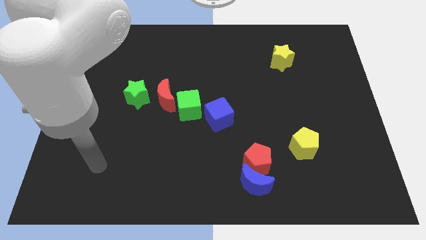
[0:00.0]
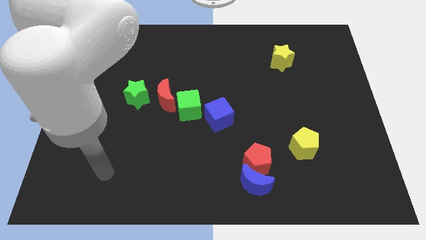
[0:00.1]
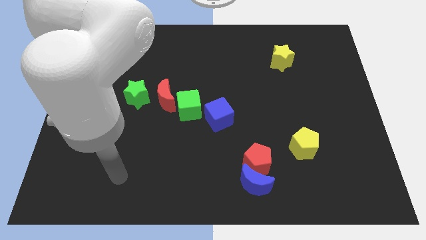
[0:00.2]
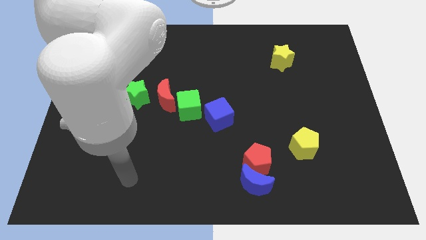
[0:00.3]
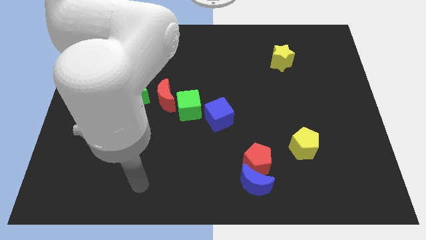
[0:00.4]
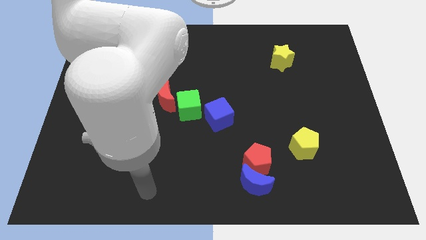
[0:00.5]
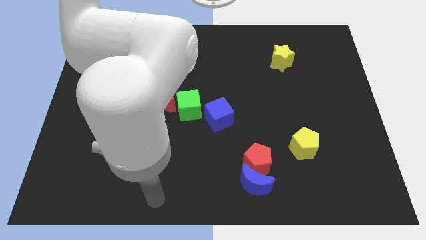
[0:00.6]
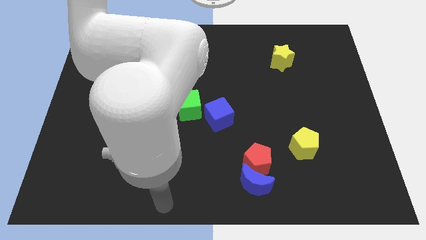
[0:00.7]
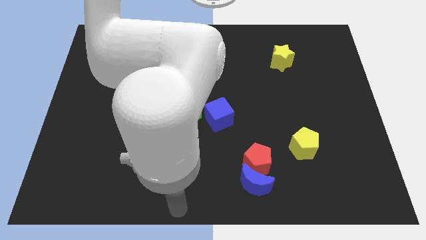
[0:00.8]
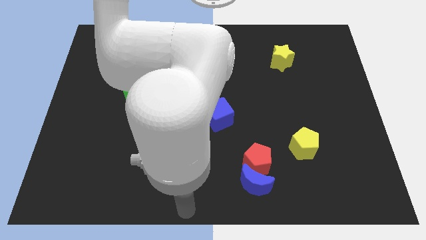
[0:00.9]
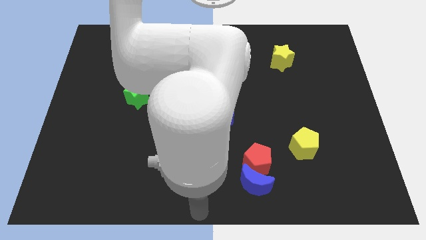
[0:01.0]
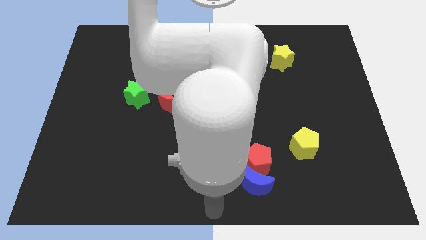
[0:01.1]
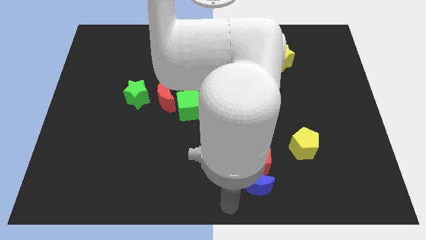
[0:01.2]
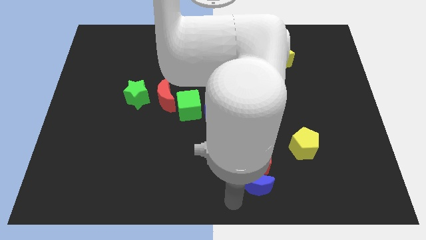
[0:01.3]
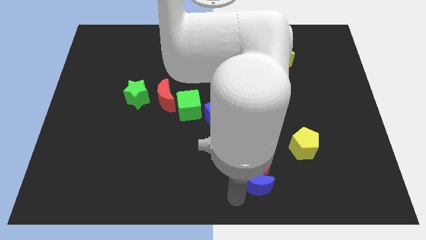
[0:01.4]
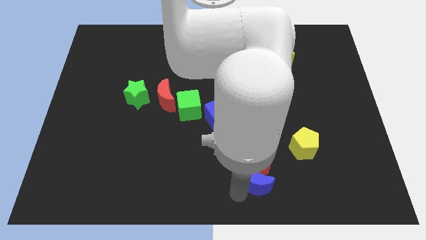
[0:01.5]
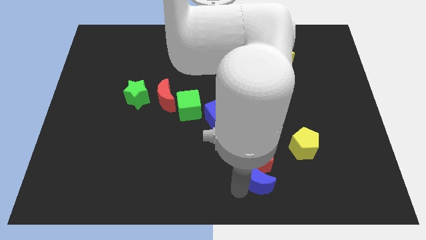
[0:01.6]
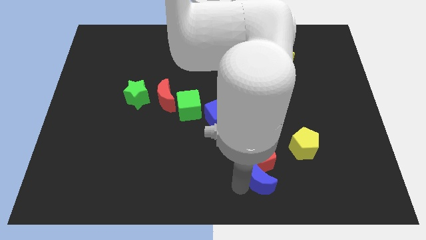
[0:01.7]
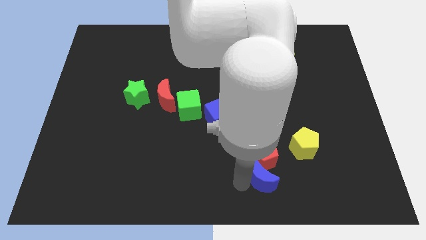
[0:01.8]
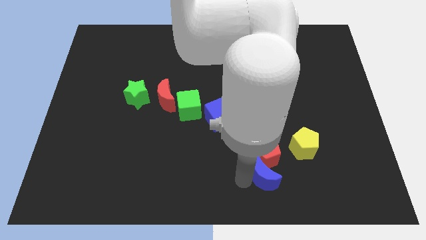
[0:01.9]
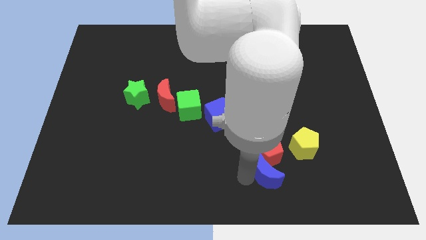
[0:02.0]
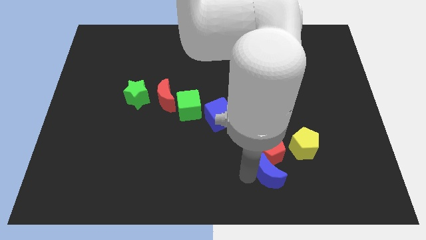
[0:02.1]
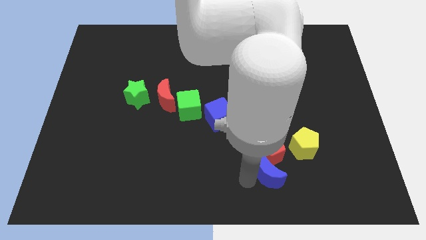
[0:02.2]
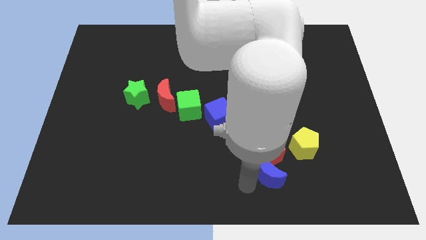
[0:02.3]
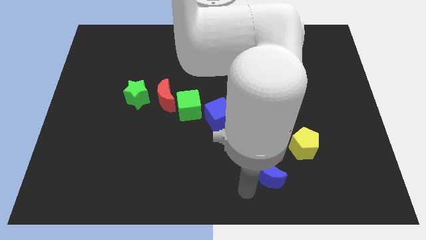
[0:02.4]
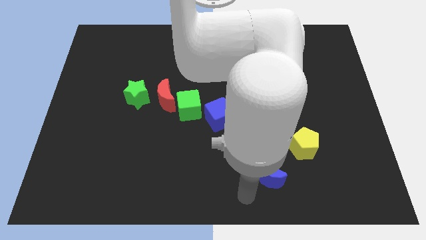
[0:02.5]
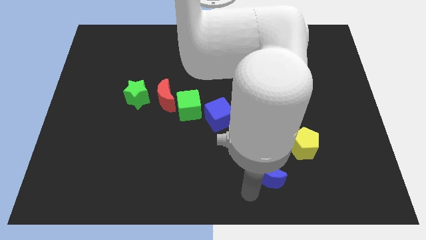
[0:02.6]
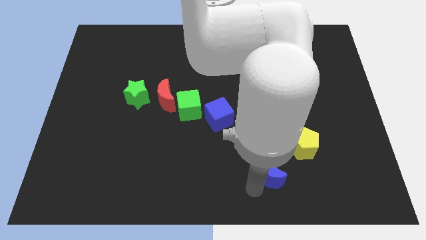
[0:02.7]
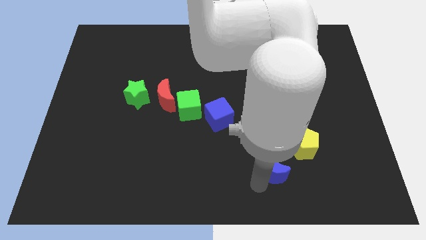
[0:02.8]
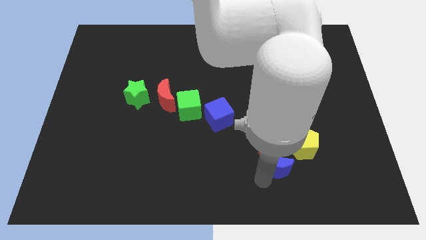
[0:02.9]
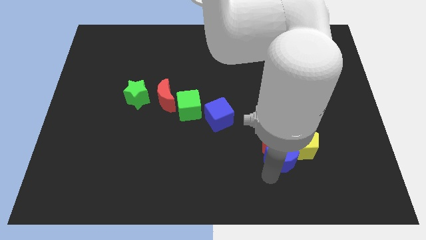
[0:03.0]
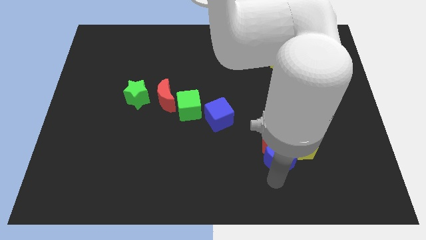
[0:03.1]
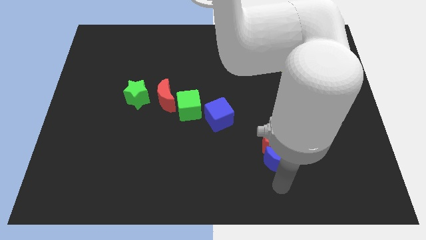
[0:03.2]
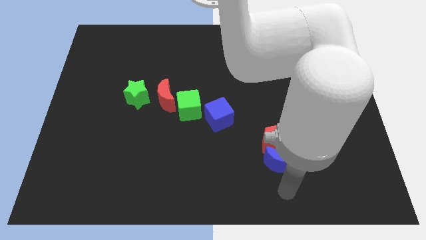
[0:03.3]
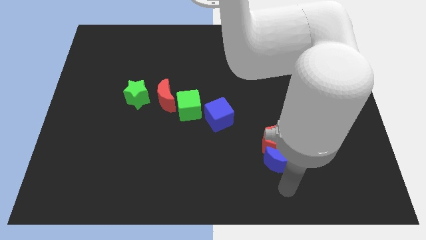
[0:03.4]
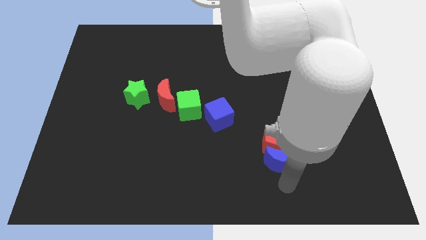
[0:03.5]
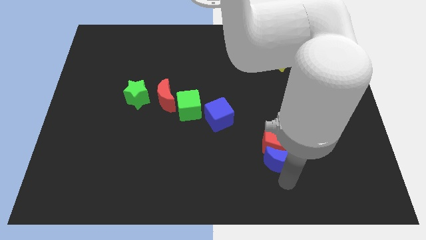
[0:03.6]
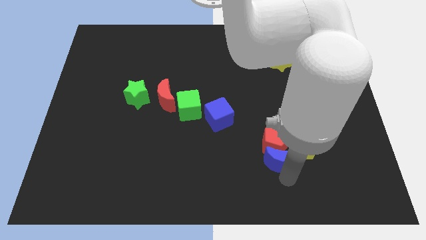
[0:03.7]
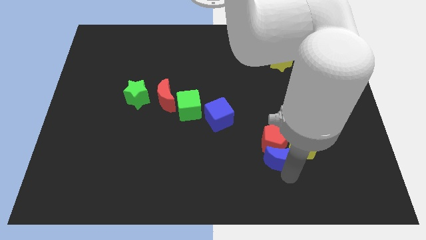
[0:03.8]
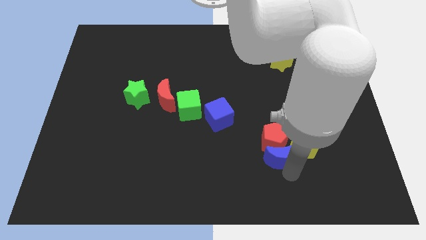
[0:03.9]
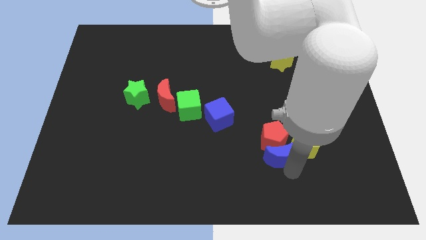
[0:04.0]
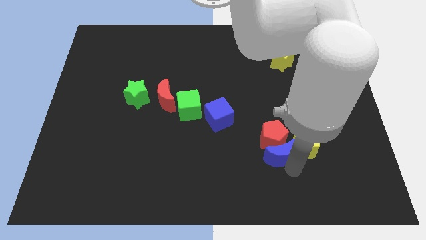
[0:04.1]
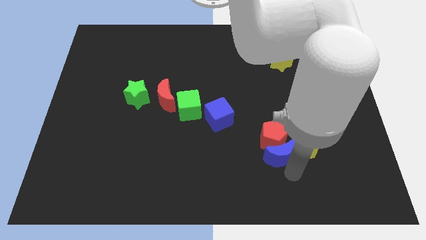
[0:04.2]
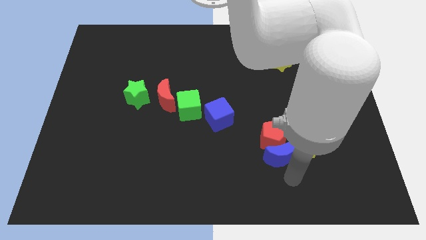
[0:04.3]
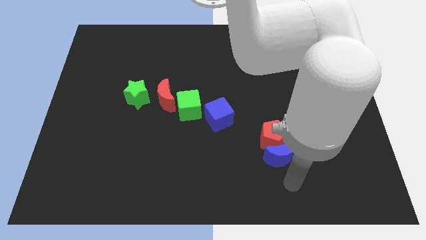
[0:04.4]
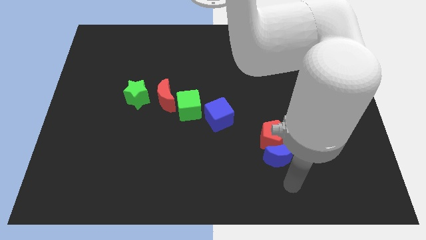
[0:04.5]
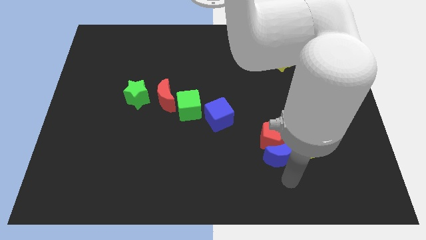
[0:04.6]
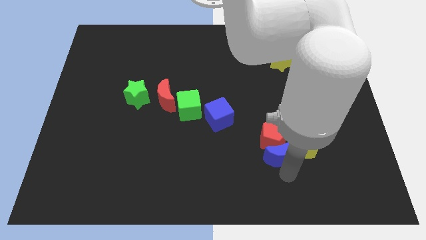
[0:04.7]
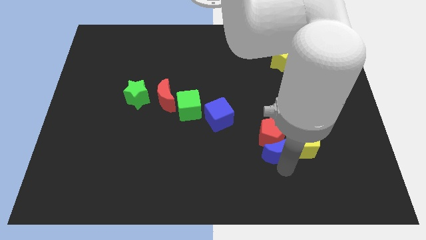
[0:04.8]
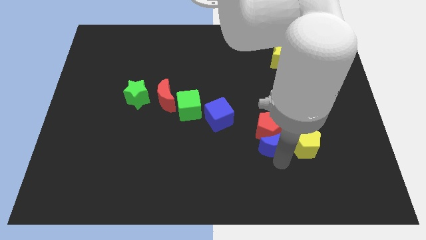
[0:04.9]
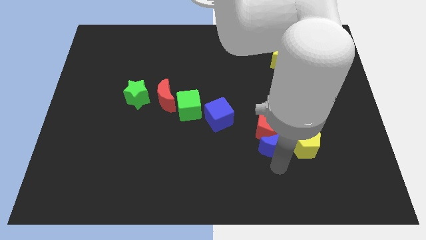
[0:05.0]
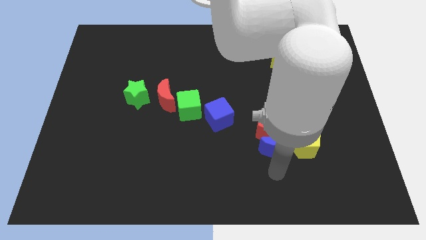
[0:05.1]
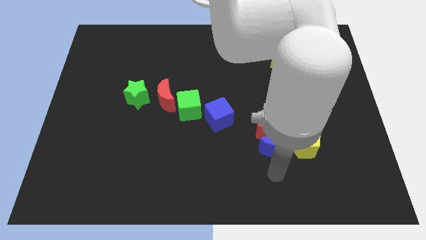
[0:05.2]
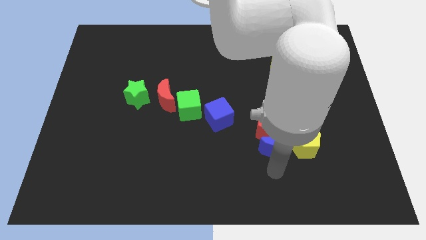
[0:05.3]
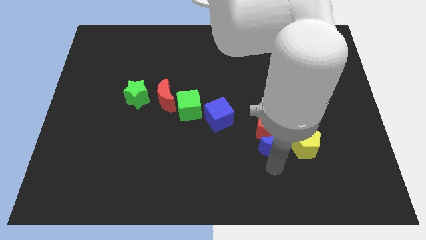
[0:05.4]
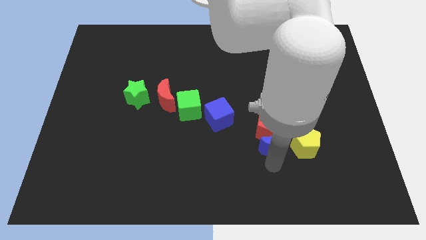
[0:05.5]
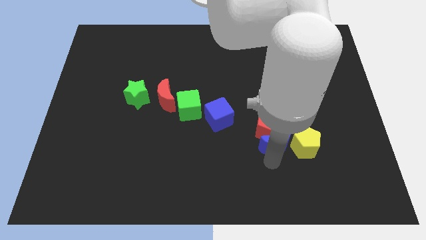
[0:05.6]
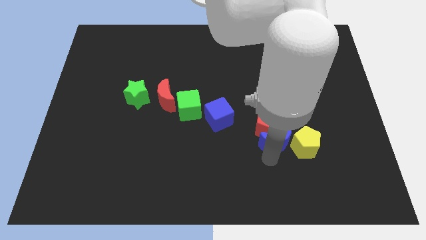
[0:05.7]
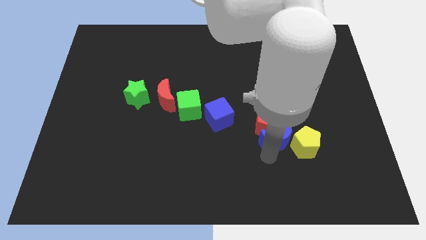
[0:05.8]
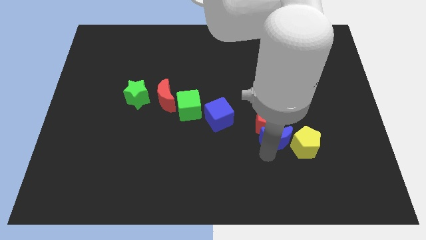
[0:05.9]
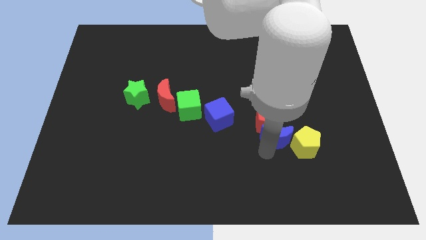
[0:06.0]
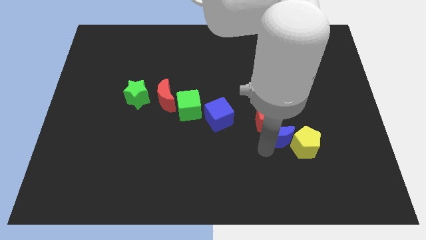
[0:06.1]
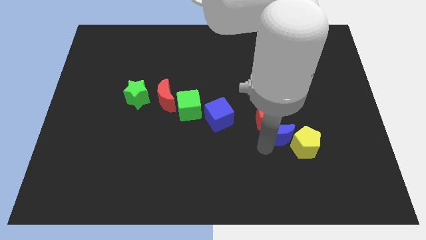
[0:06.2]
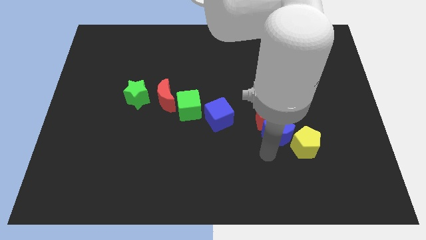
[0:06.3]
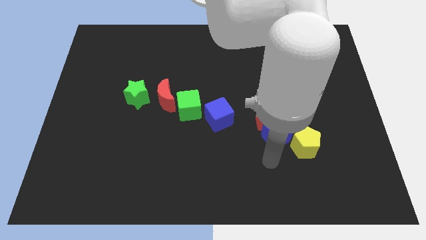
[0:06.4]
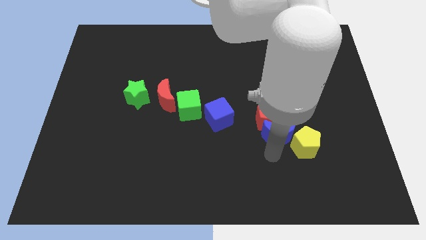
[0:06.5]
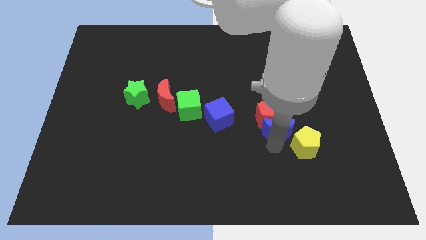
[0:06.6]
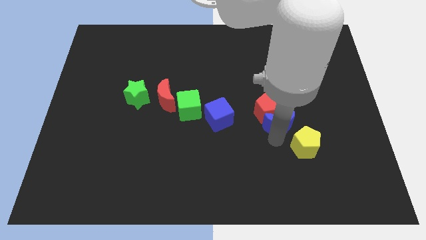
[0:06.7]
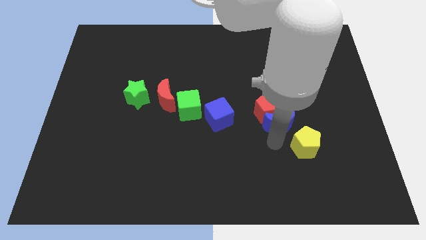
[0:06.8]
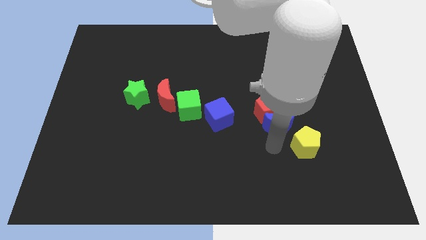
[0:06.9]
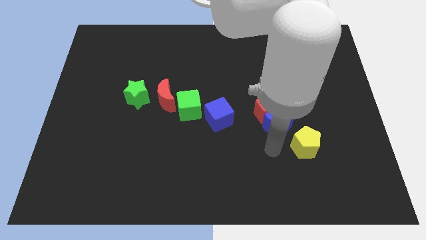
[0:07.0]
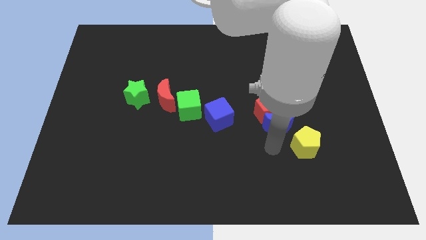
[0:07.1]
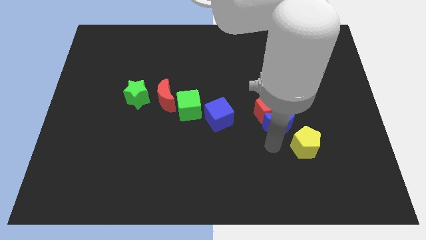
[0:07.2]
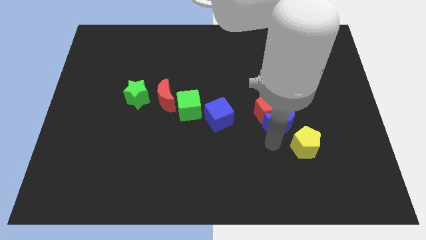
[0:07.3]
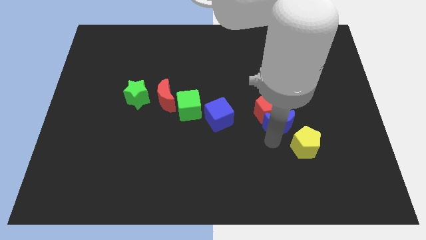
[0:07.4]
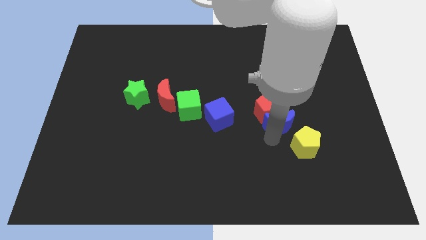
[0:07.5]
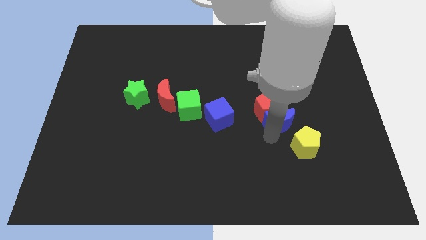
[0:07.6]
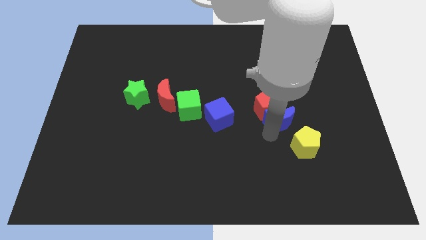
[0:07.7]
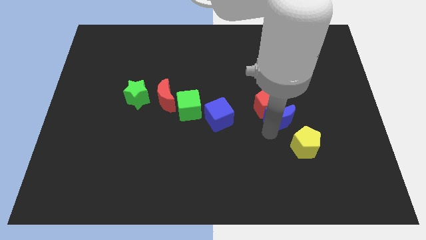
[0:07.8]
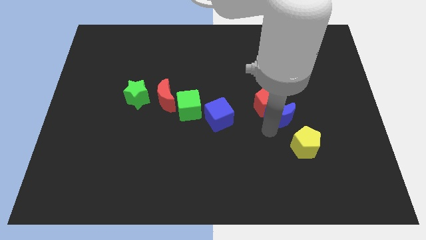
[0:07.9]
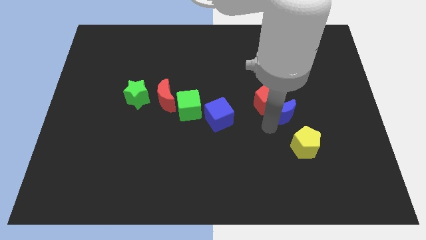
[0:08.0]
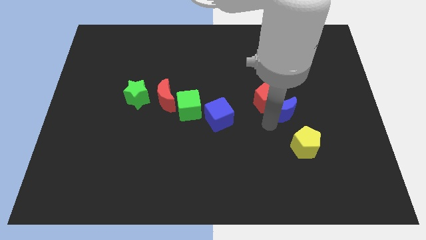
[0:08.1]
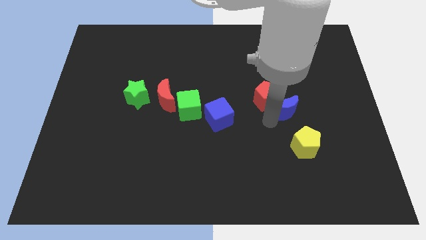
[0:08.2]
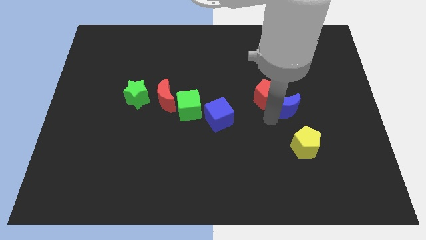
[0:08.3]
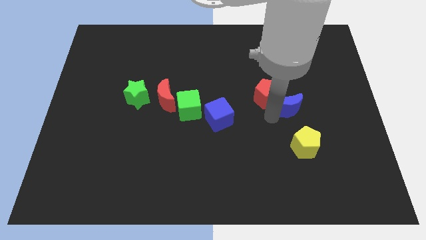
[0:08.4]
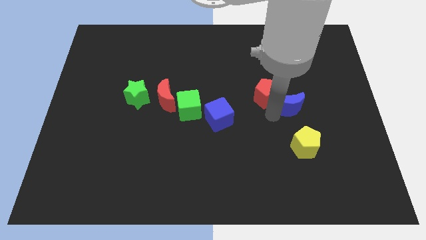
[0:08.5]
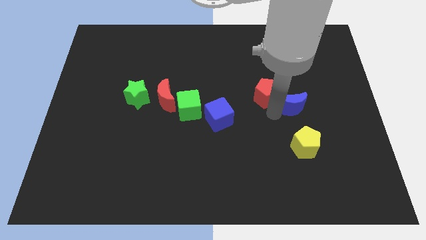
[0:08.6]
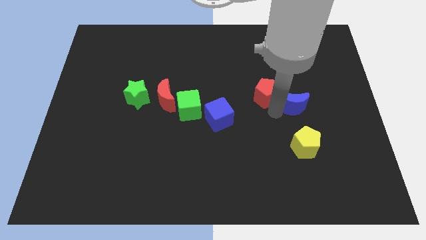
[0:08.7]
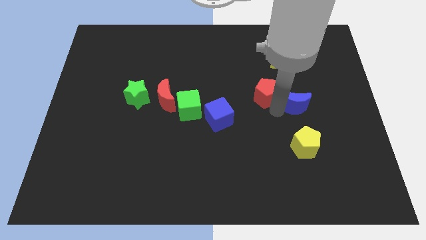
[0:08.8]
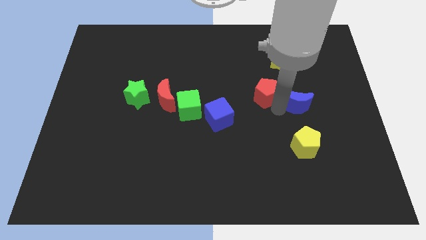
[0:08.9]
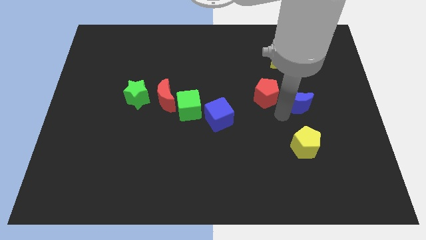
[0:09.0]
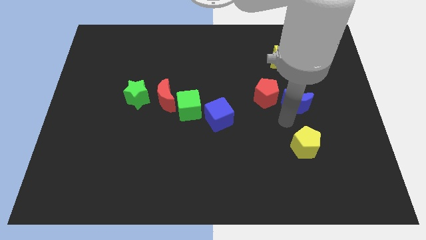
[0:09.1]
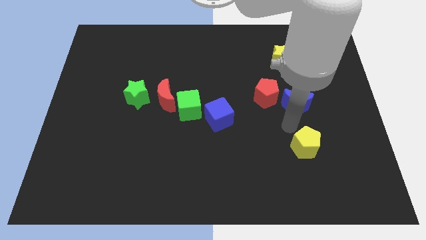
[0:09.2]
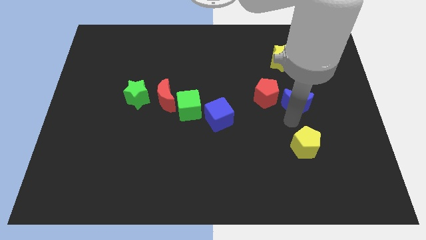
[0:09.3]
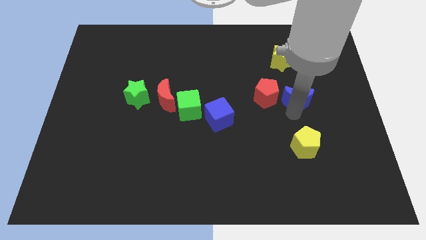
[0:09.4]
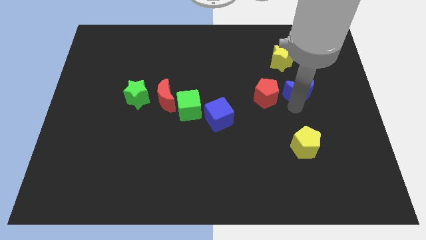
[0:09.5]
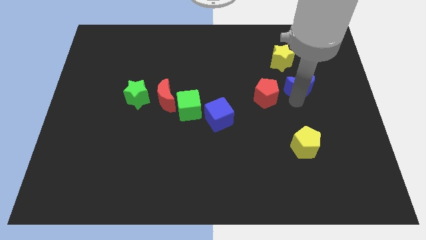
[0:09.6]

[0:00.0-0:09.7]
put the blue moon to the bottom right of the yellow star
